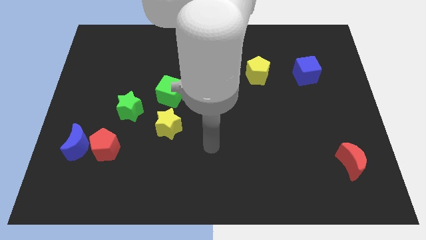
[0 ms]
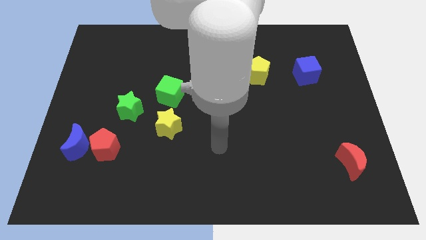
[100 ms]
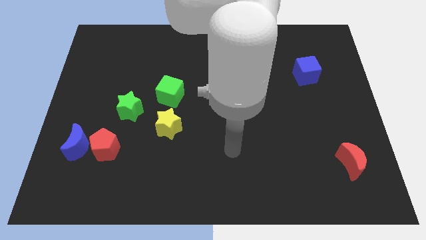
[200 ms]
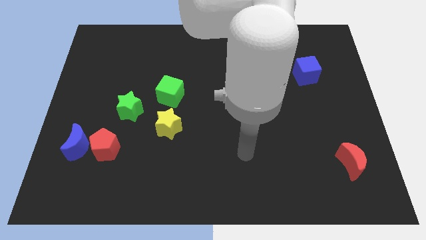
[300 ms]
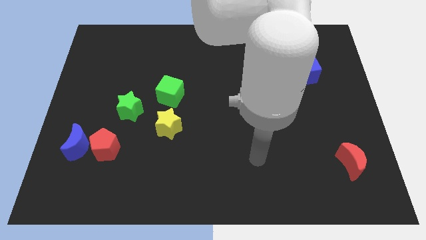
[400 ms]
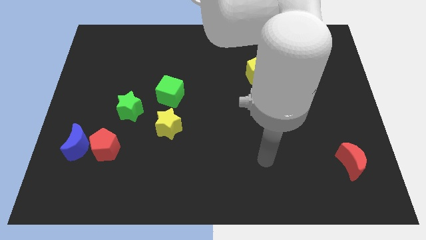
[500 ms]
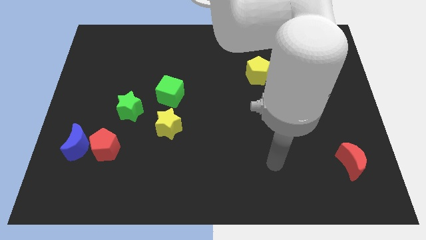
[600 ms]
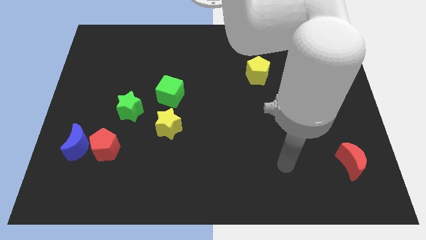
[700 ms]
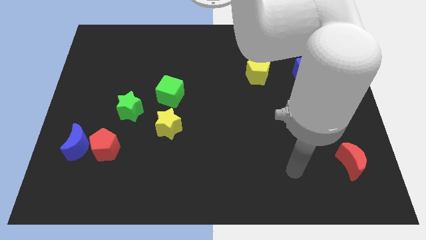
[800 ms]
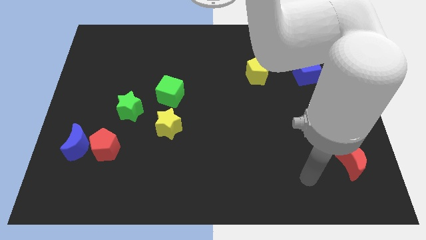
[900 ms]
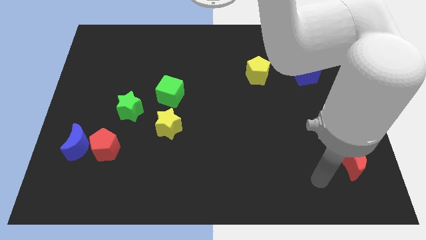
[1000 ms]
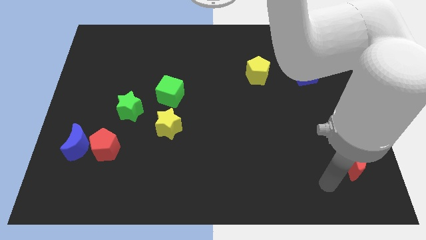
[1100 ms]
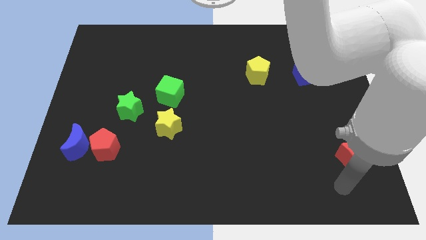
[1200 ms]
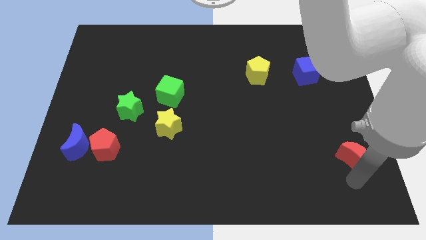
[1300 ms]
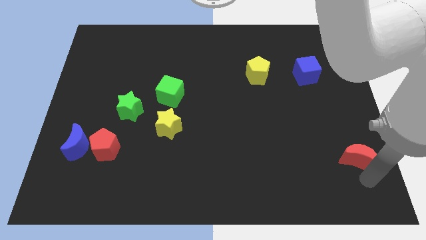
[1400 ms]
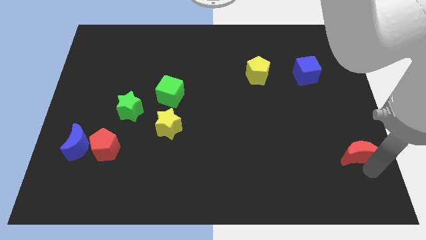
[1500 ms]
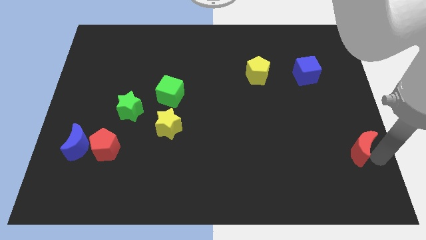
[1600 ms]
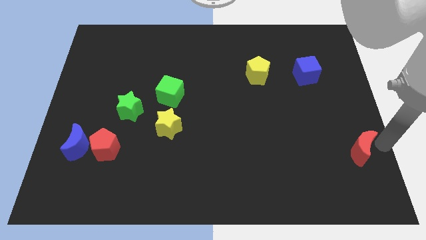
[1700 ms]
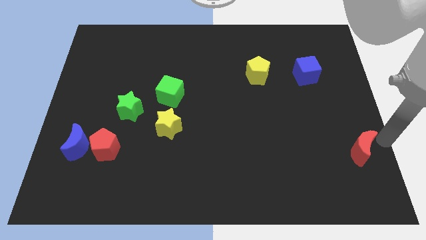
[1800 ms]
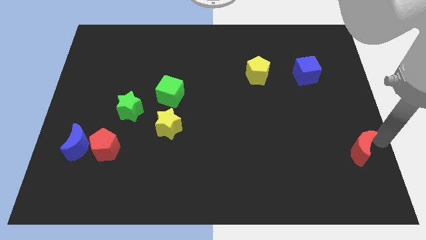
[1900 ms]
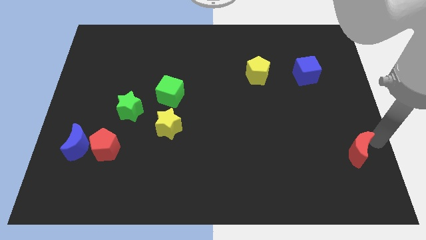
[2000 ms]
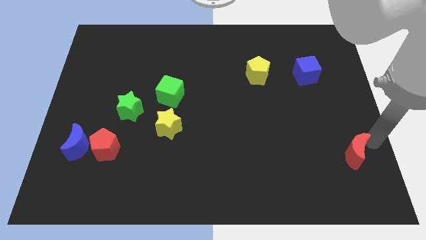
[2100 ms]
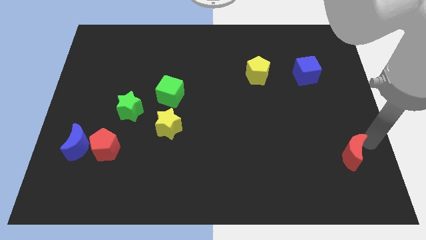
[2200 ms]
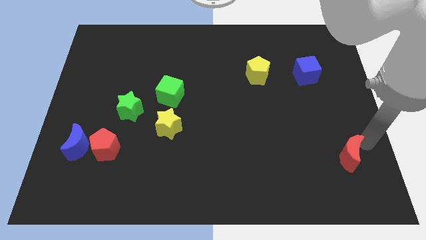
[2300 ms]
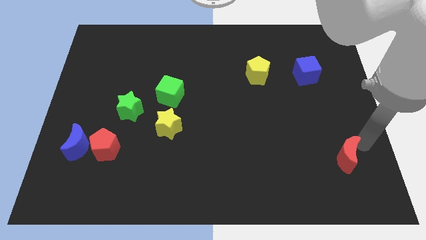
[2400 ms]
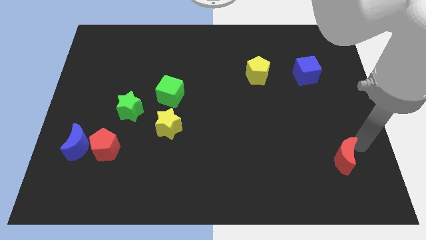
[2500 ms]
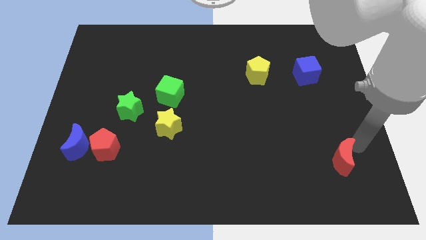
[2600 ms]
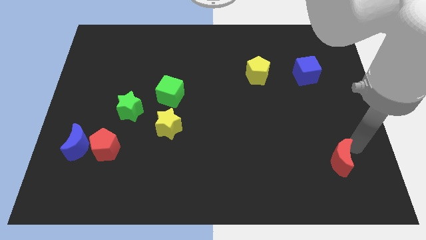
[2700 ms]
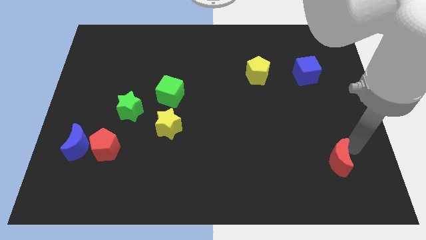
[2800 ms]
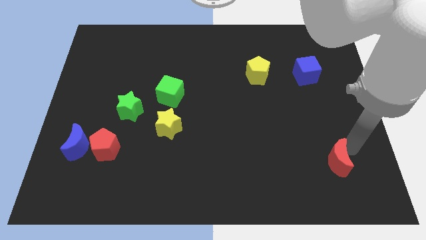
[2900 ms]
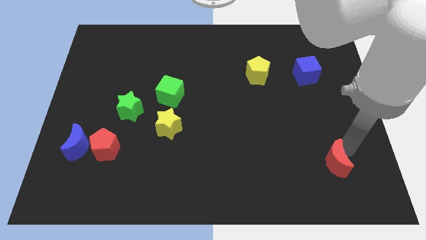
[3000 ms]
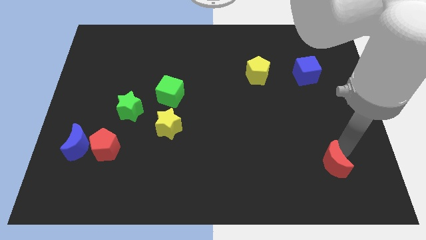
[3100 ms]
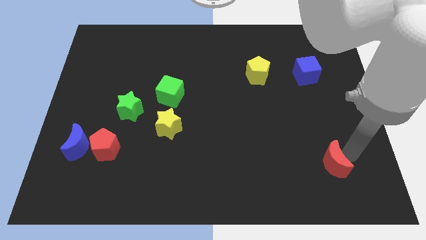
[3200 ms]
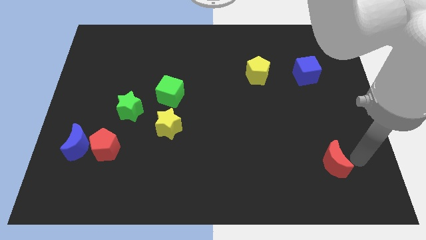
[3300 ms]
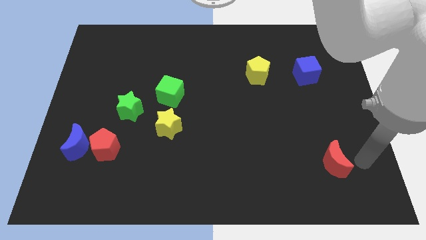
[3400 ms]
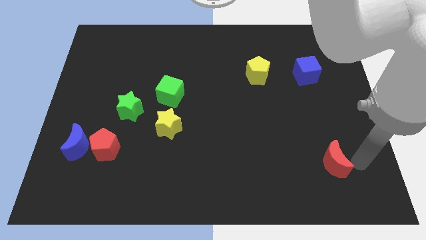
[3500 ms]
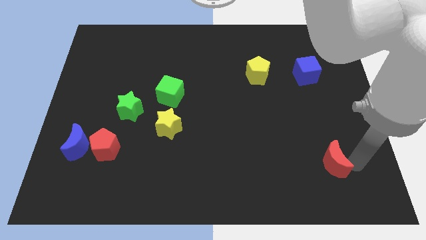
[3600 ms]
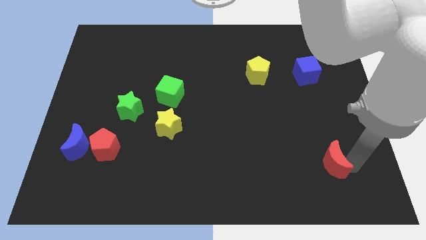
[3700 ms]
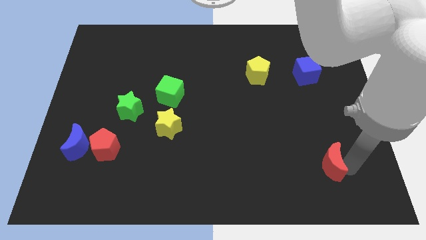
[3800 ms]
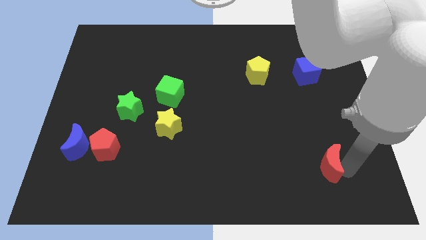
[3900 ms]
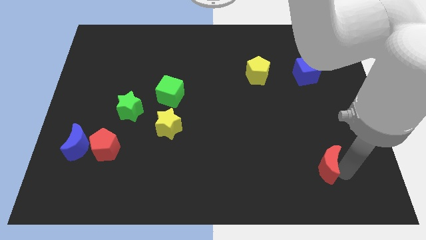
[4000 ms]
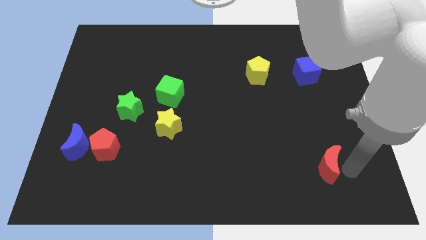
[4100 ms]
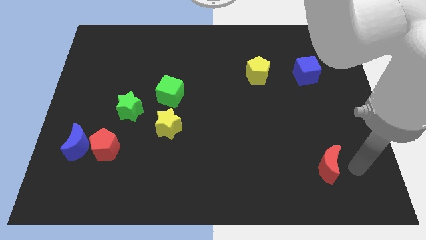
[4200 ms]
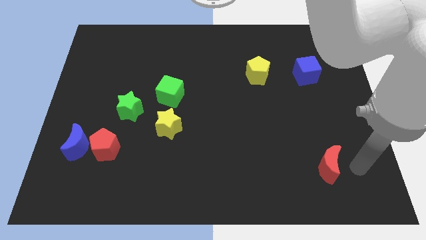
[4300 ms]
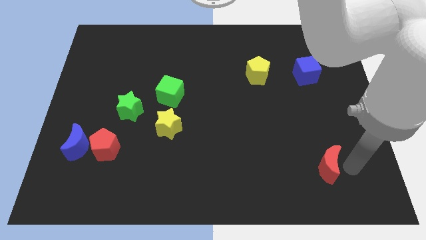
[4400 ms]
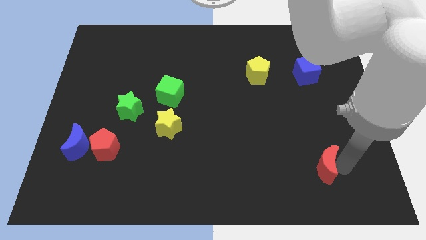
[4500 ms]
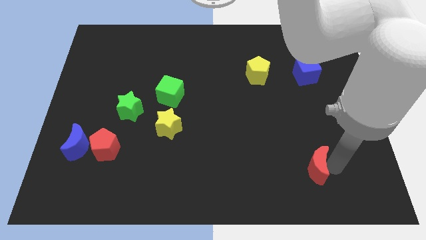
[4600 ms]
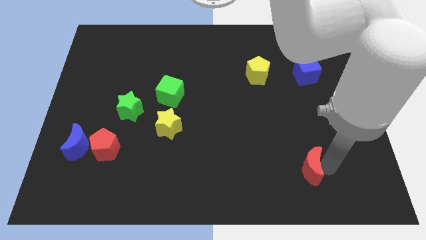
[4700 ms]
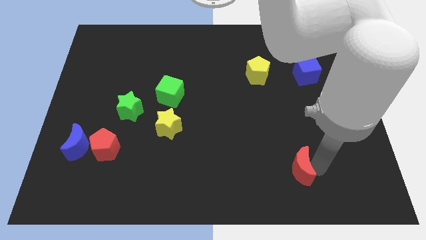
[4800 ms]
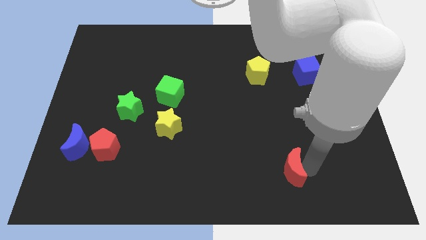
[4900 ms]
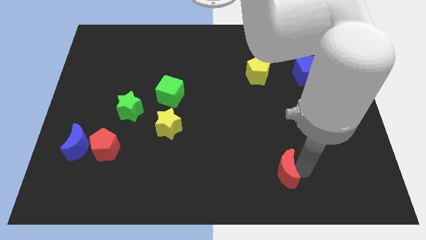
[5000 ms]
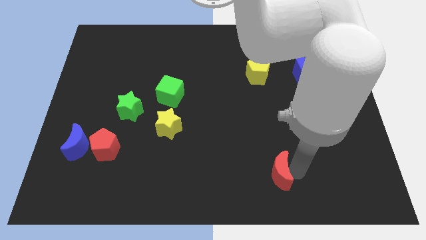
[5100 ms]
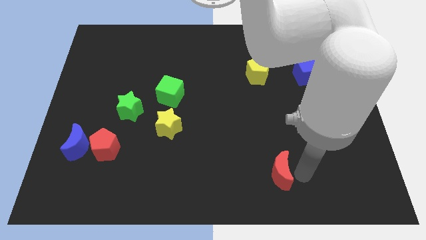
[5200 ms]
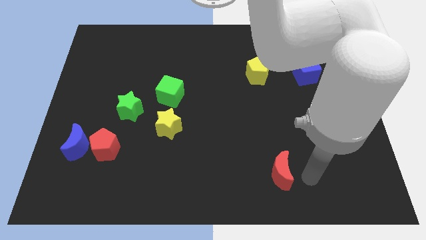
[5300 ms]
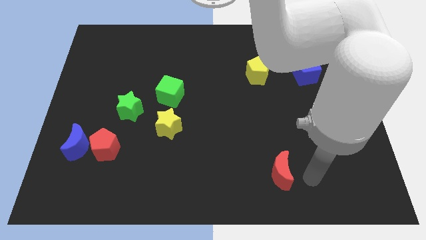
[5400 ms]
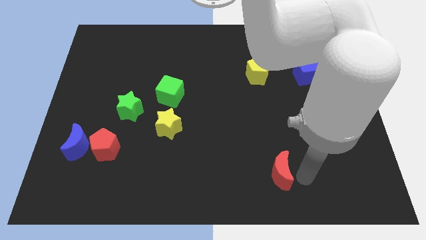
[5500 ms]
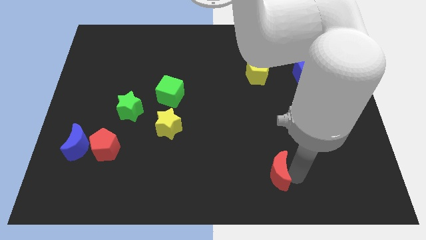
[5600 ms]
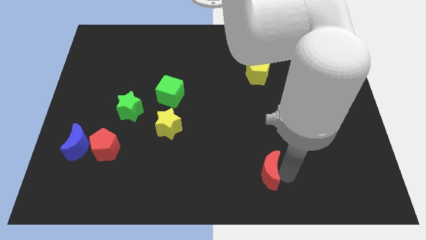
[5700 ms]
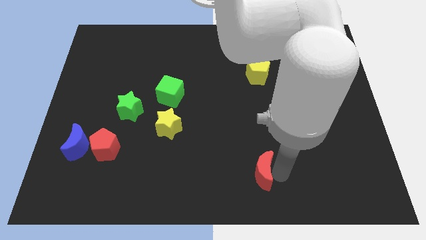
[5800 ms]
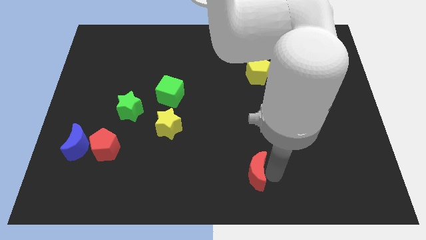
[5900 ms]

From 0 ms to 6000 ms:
slide the red moon to the left

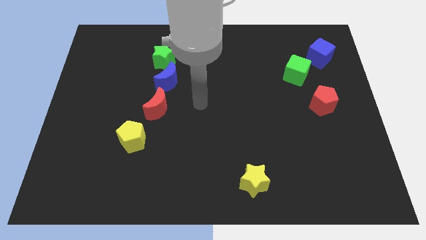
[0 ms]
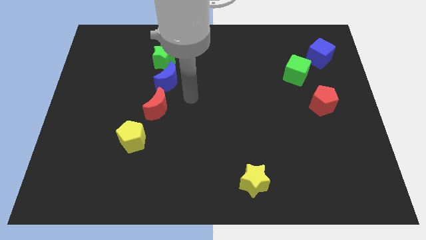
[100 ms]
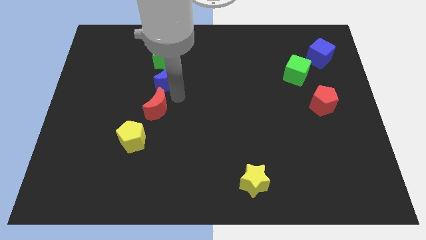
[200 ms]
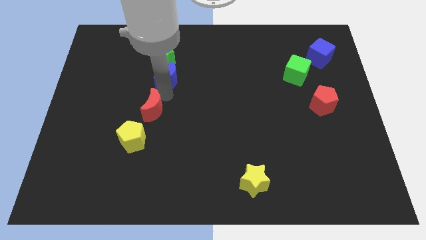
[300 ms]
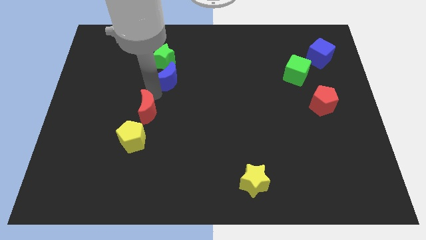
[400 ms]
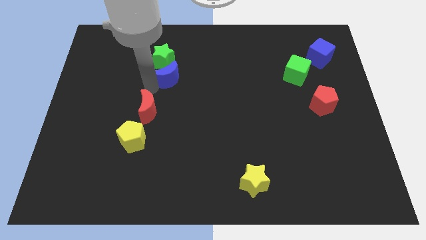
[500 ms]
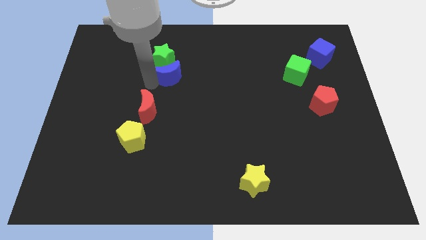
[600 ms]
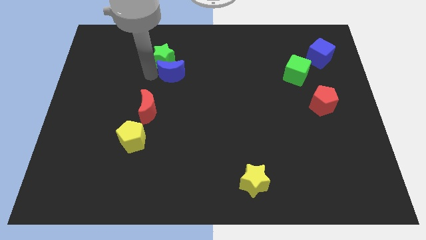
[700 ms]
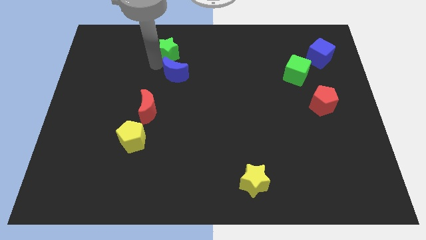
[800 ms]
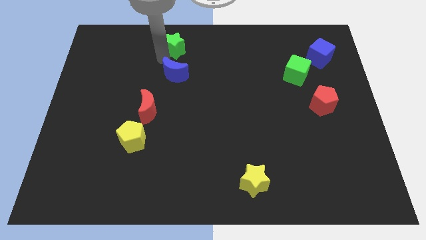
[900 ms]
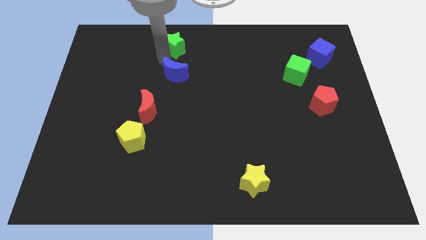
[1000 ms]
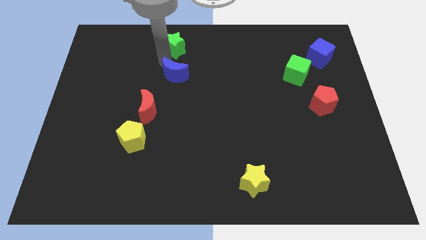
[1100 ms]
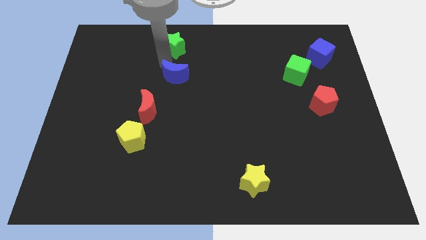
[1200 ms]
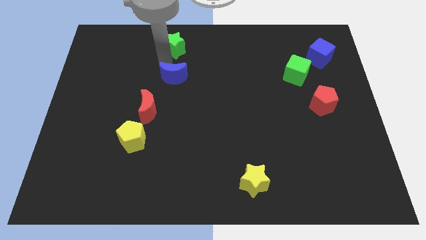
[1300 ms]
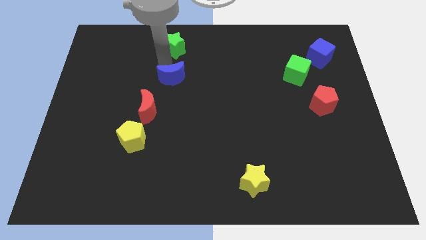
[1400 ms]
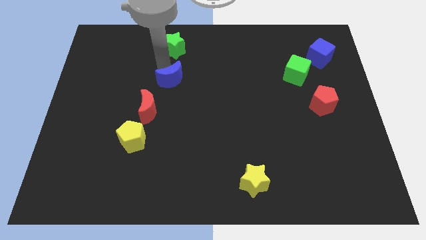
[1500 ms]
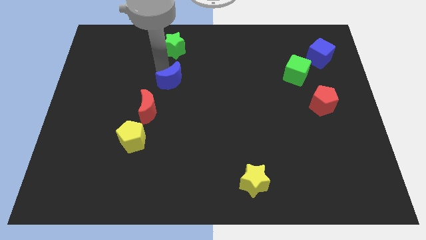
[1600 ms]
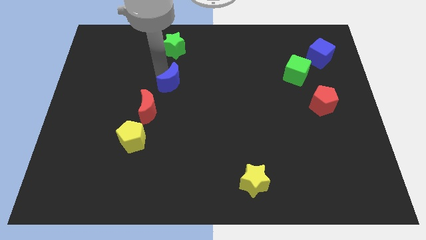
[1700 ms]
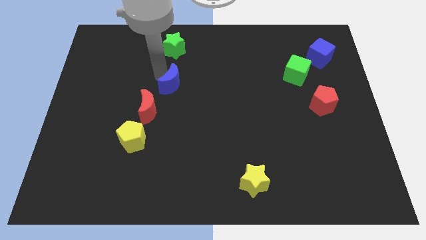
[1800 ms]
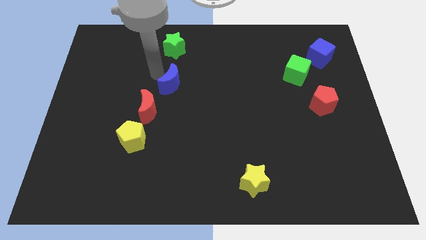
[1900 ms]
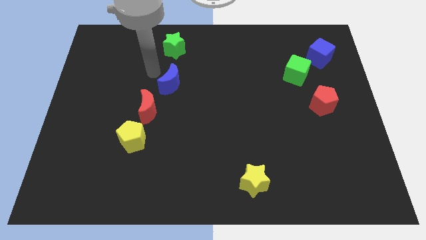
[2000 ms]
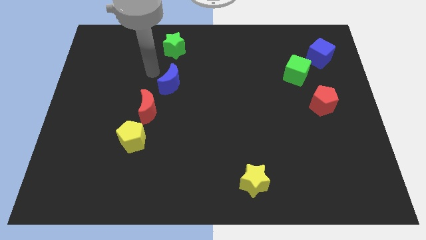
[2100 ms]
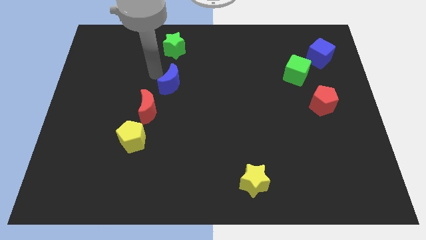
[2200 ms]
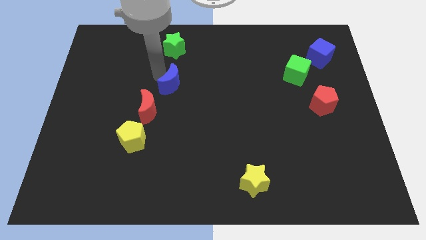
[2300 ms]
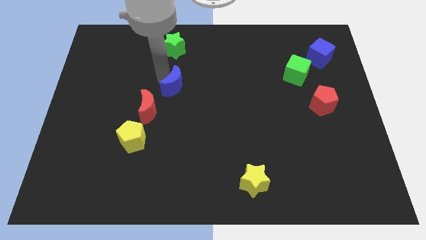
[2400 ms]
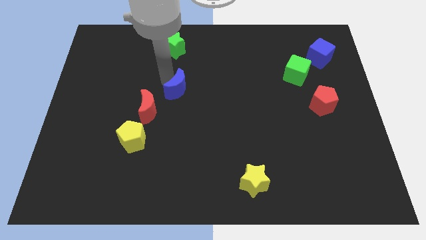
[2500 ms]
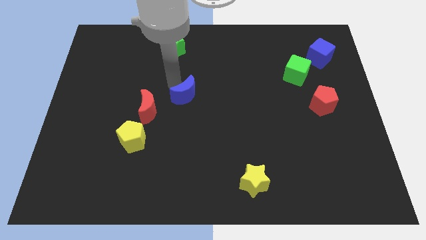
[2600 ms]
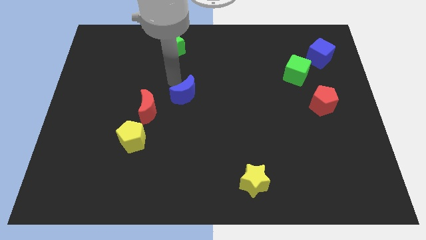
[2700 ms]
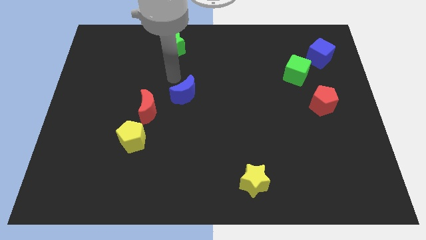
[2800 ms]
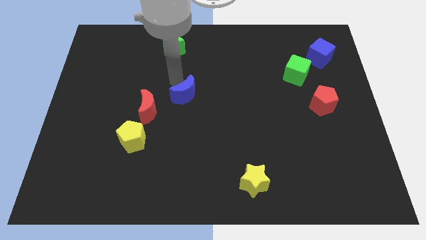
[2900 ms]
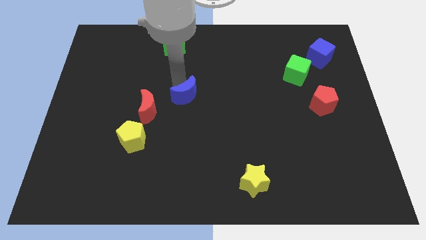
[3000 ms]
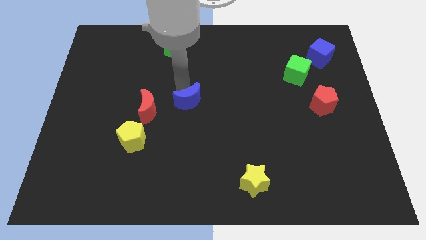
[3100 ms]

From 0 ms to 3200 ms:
slide the blue moon slightly downwards and right
